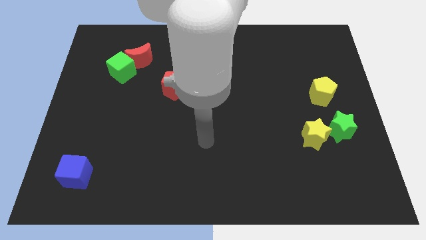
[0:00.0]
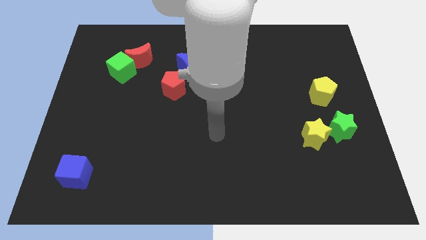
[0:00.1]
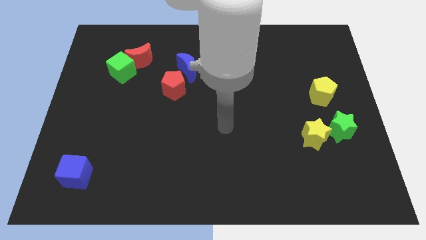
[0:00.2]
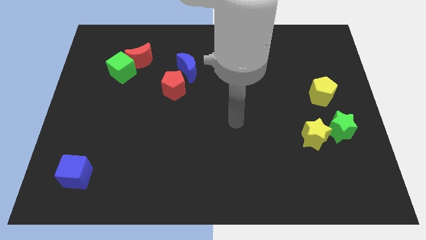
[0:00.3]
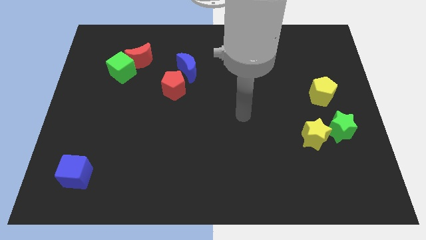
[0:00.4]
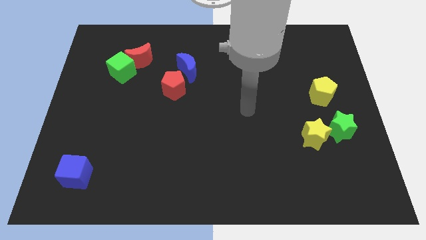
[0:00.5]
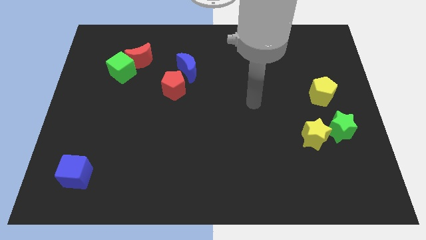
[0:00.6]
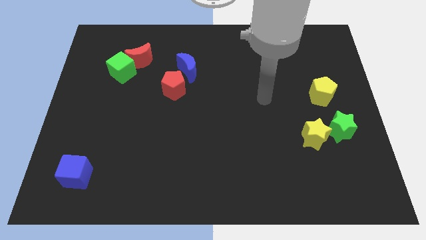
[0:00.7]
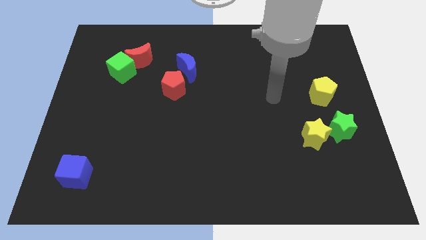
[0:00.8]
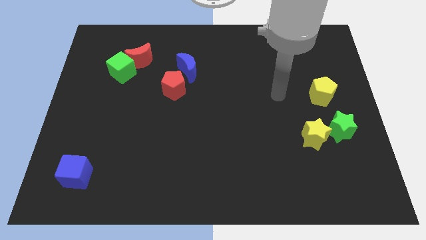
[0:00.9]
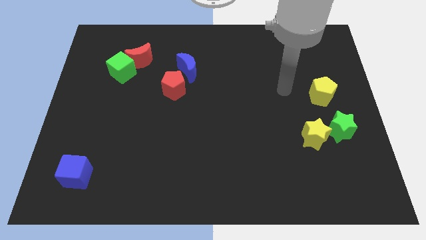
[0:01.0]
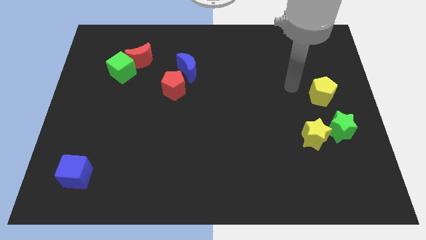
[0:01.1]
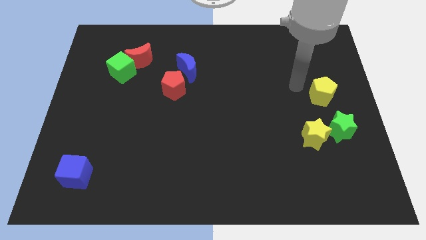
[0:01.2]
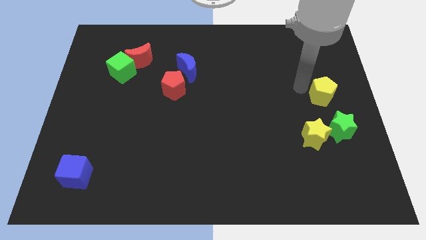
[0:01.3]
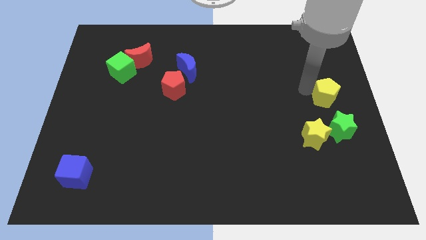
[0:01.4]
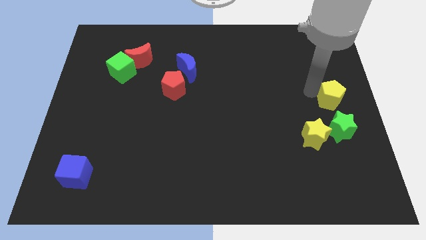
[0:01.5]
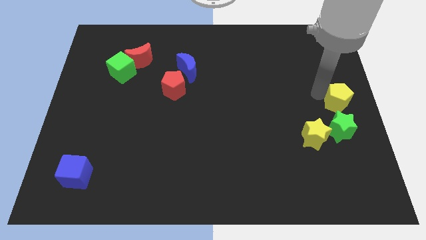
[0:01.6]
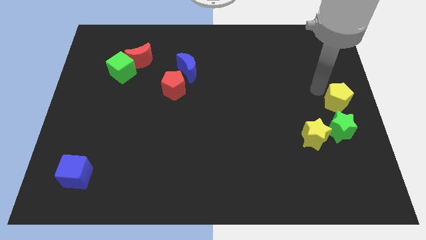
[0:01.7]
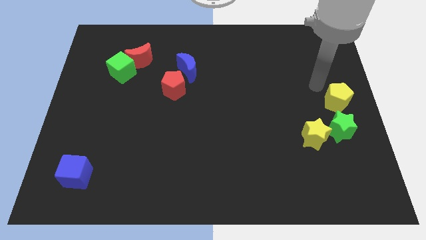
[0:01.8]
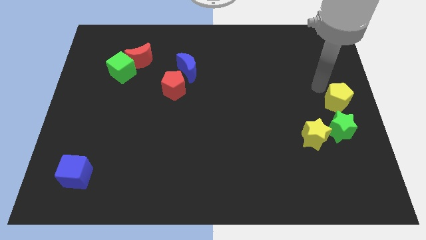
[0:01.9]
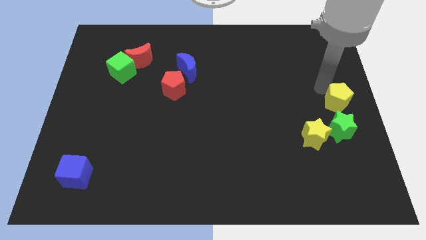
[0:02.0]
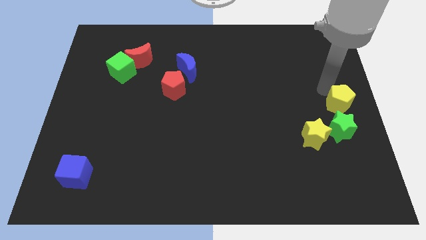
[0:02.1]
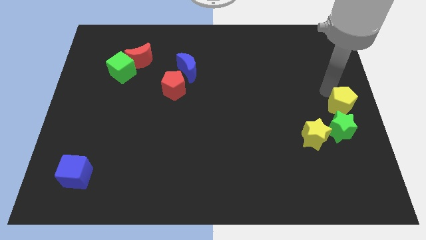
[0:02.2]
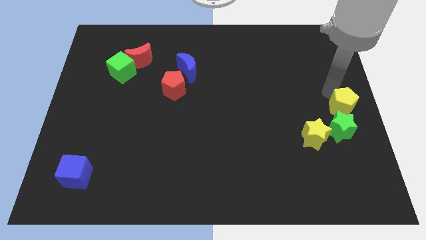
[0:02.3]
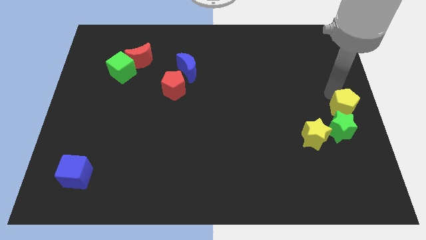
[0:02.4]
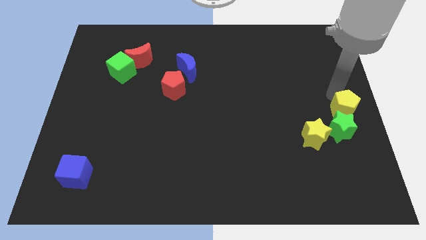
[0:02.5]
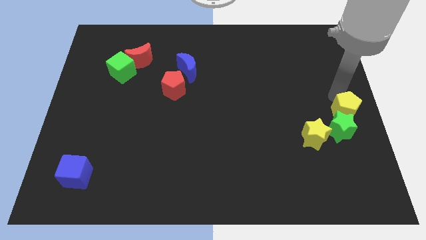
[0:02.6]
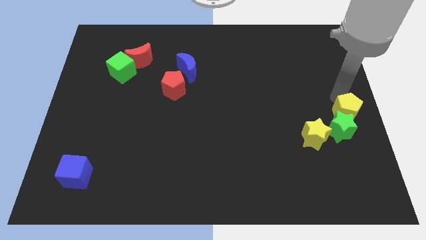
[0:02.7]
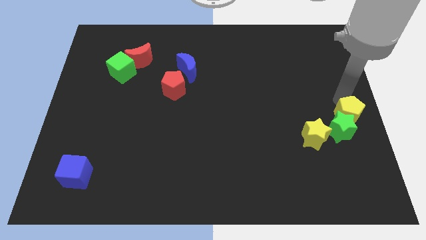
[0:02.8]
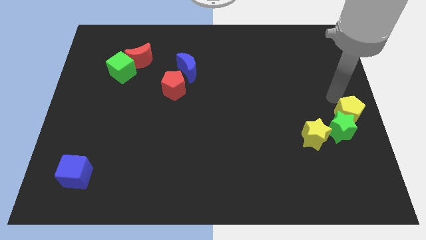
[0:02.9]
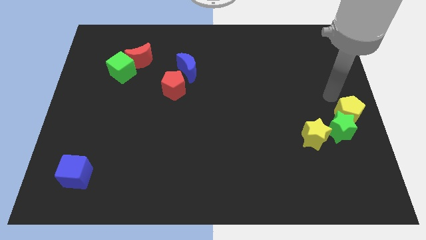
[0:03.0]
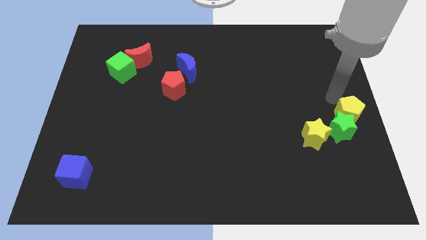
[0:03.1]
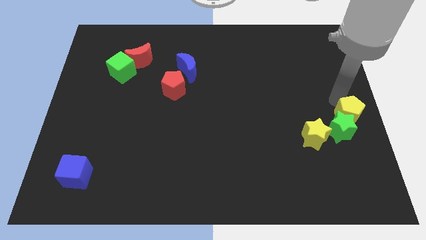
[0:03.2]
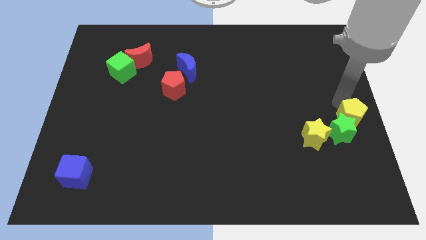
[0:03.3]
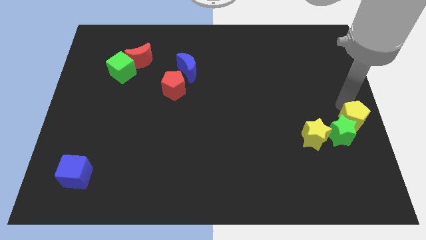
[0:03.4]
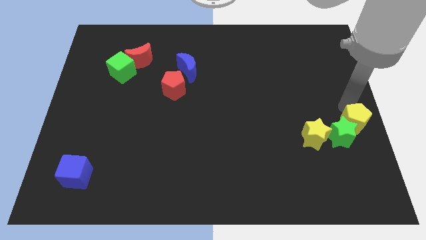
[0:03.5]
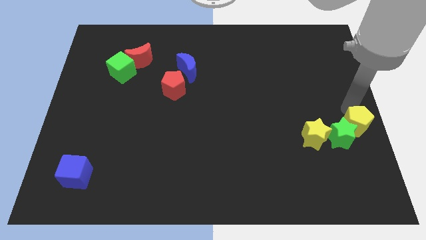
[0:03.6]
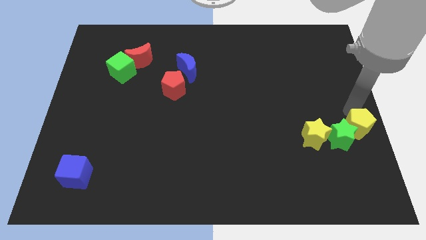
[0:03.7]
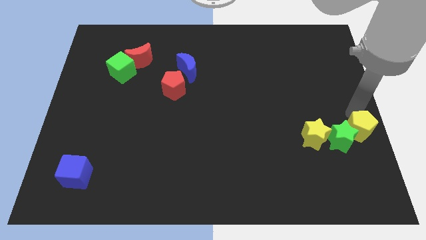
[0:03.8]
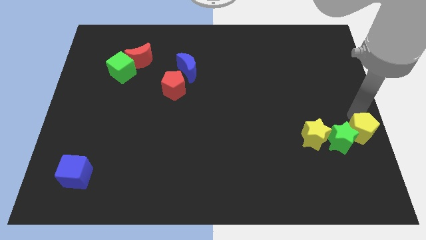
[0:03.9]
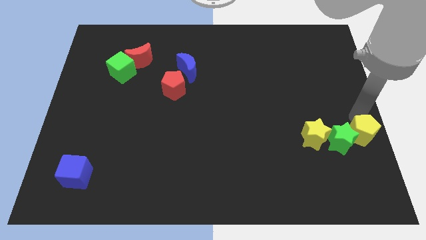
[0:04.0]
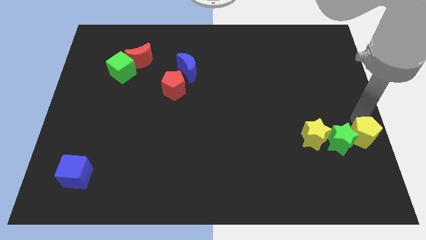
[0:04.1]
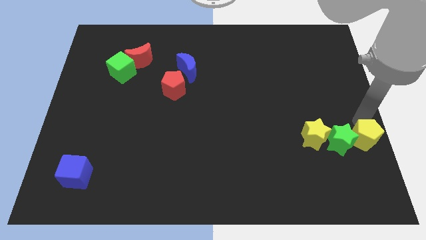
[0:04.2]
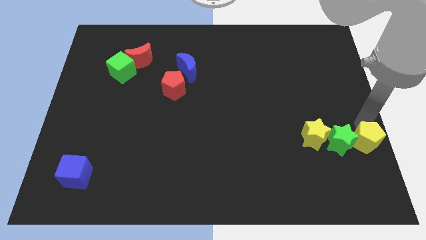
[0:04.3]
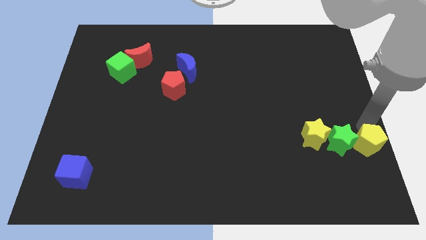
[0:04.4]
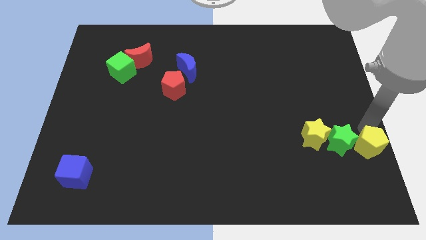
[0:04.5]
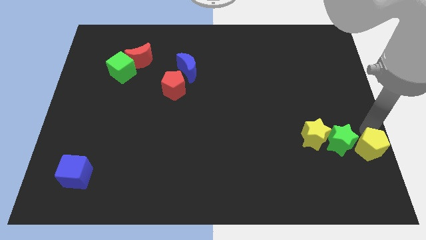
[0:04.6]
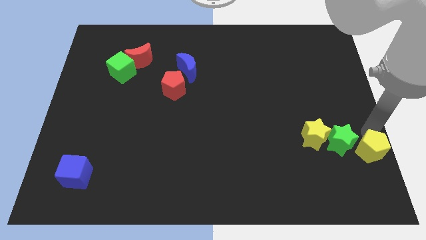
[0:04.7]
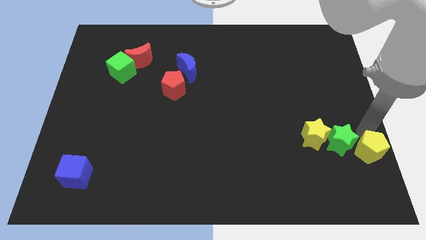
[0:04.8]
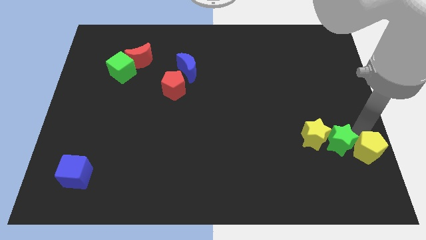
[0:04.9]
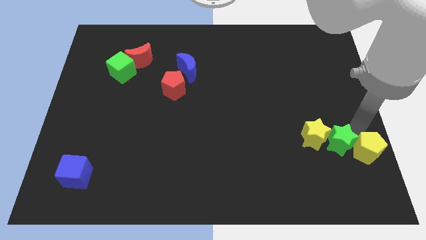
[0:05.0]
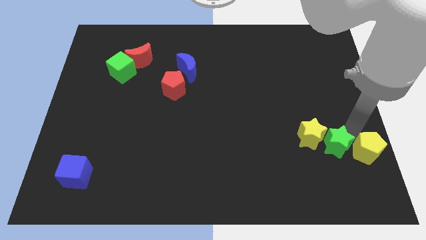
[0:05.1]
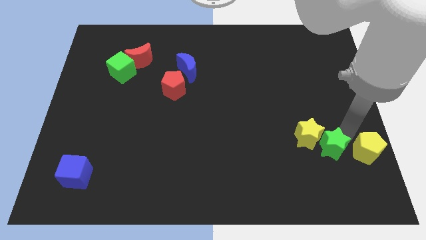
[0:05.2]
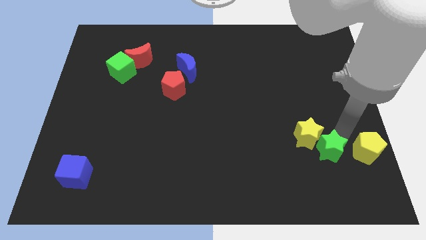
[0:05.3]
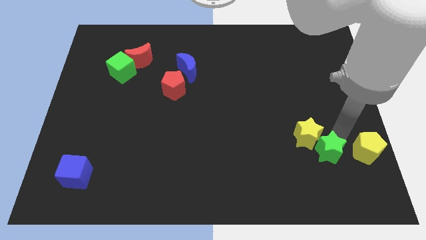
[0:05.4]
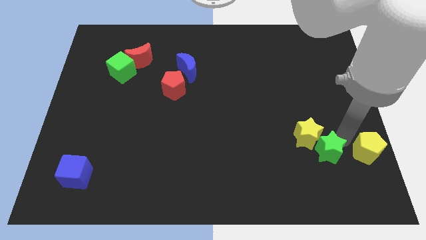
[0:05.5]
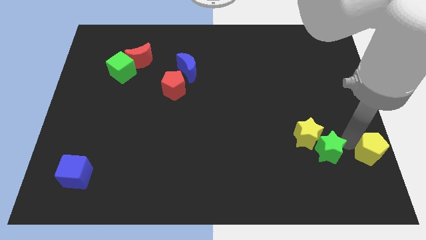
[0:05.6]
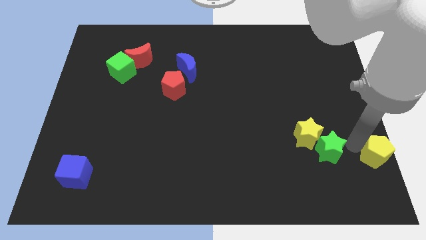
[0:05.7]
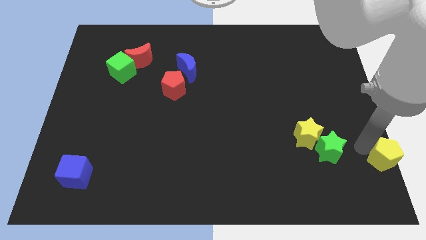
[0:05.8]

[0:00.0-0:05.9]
push the yellow pentagon to the bottom right of the board
